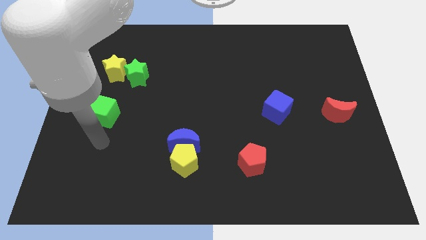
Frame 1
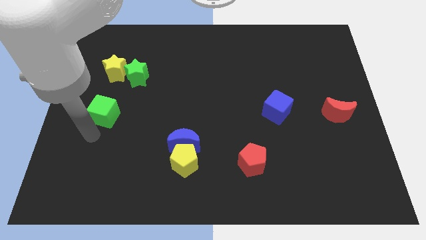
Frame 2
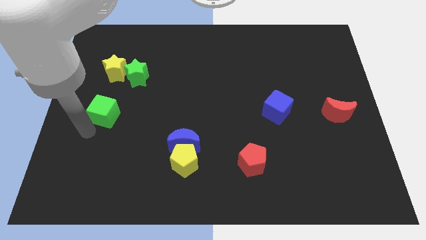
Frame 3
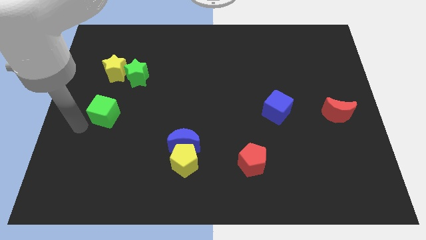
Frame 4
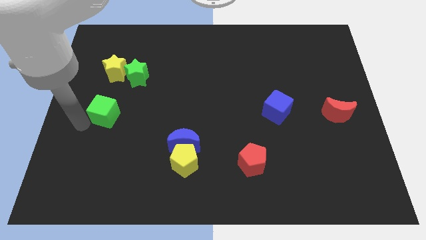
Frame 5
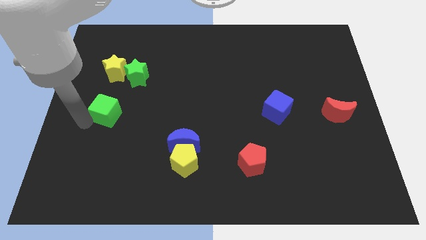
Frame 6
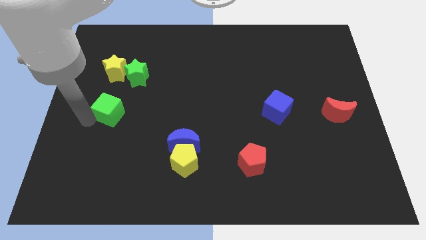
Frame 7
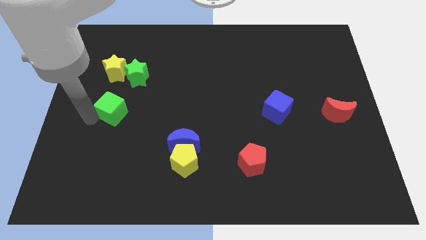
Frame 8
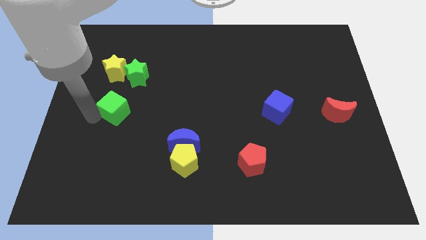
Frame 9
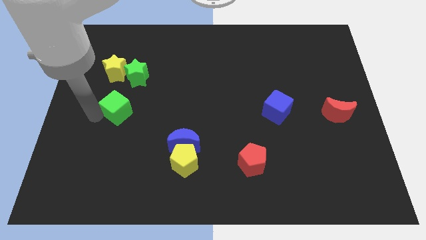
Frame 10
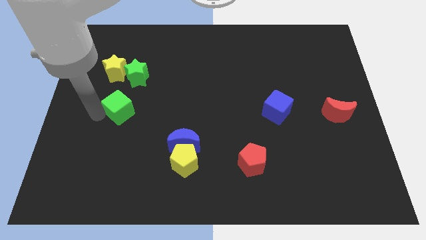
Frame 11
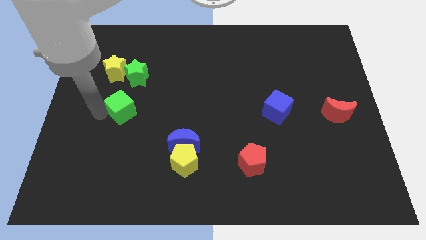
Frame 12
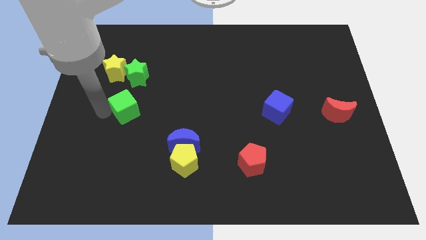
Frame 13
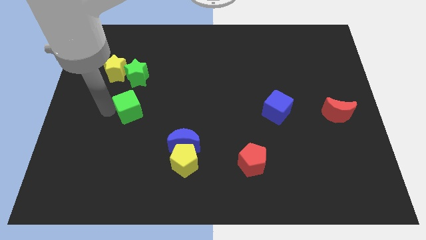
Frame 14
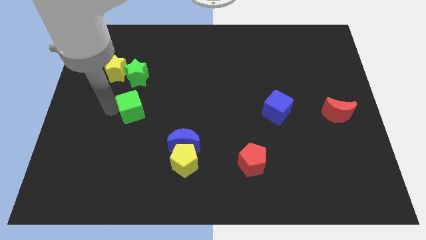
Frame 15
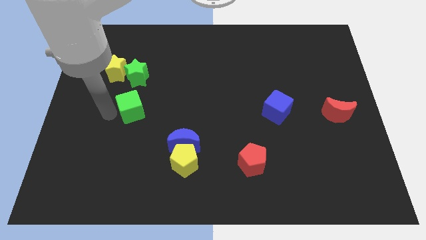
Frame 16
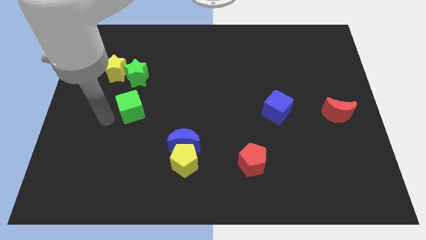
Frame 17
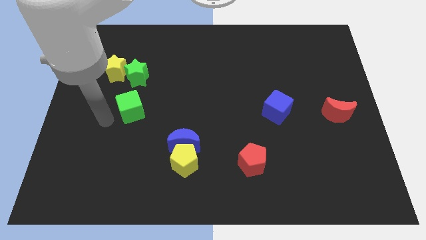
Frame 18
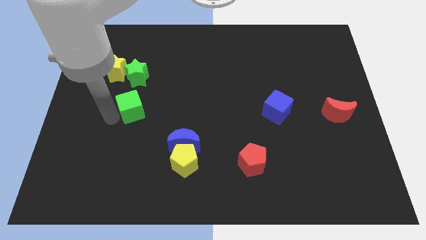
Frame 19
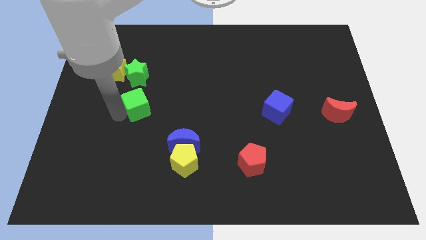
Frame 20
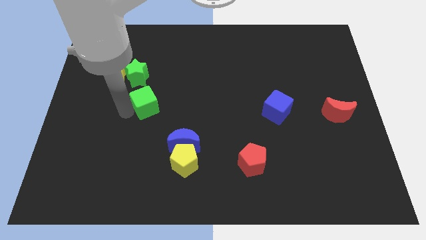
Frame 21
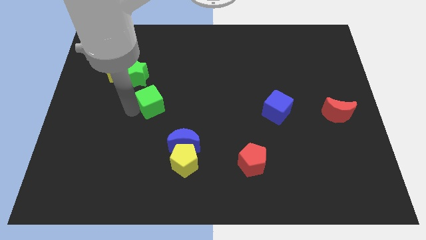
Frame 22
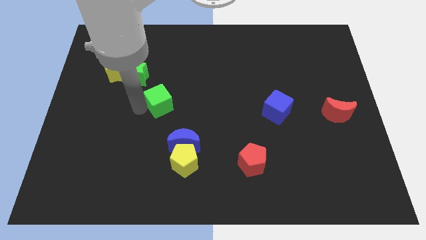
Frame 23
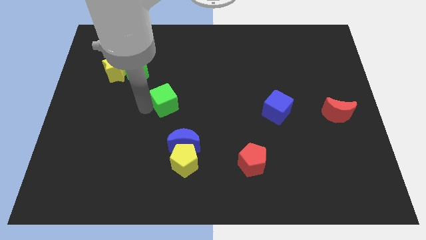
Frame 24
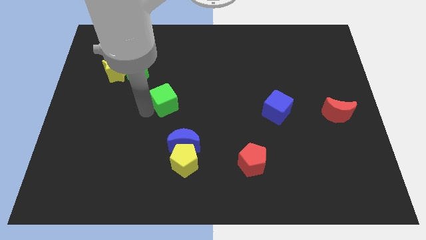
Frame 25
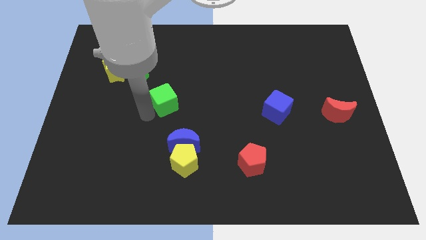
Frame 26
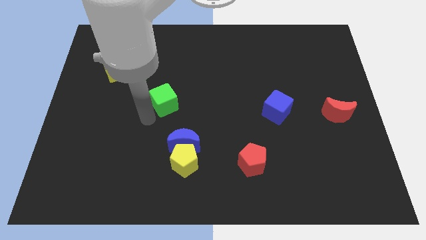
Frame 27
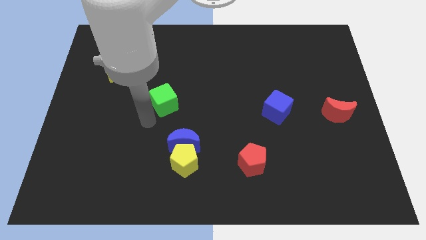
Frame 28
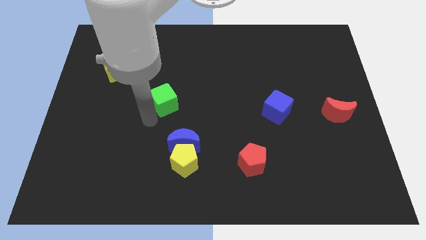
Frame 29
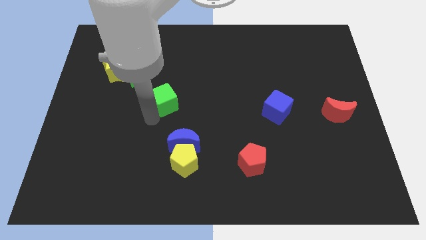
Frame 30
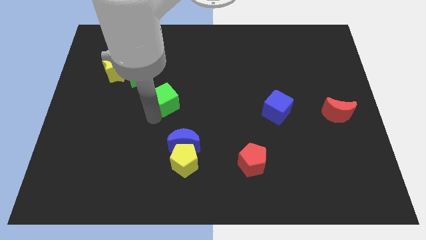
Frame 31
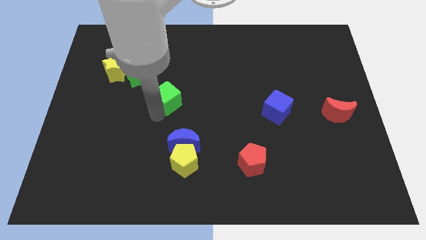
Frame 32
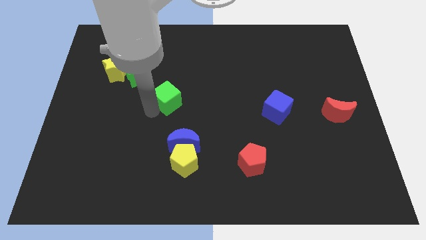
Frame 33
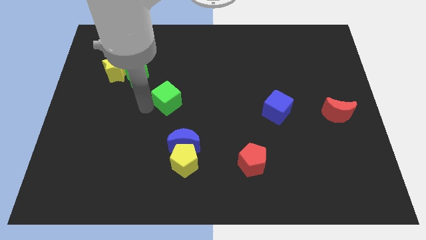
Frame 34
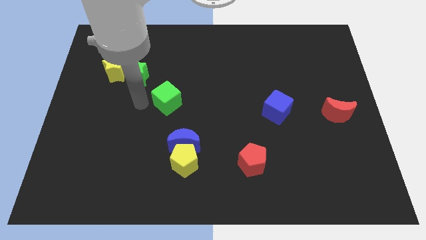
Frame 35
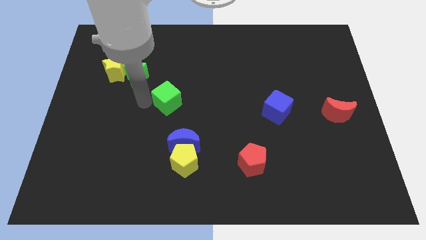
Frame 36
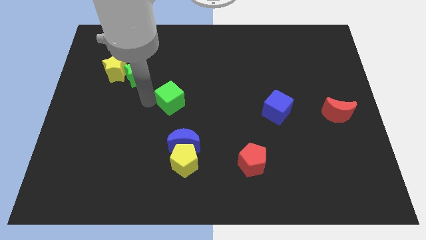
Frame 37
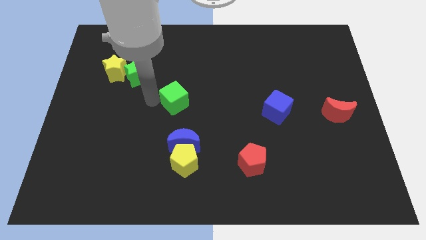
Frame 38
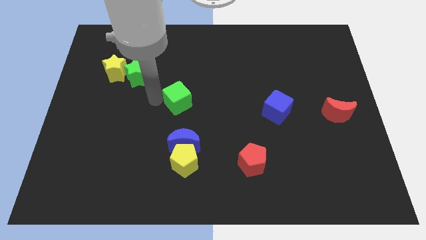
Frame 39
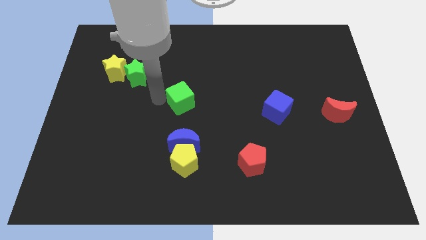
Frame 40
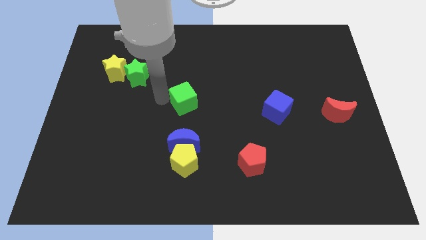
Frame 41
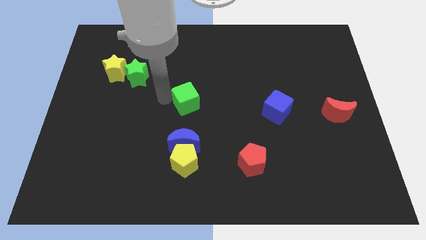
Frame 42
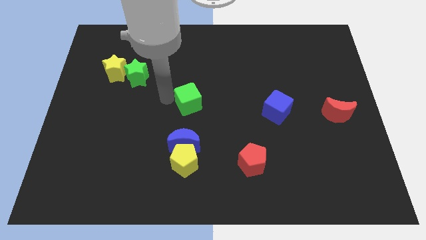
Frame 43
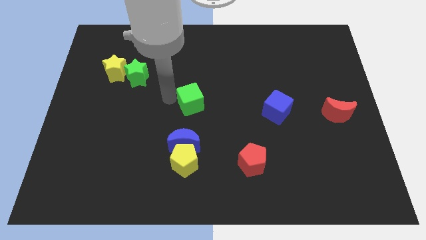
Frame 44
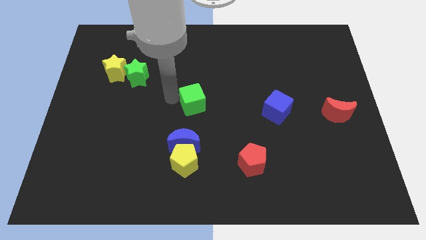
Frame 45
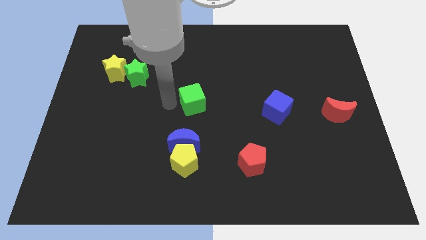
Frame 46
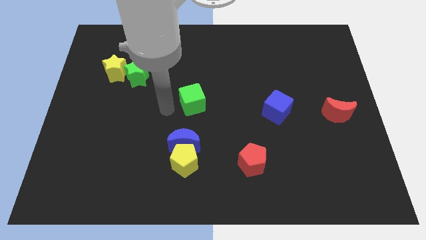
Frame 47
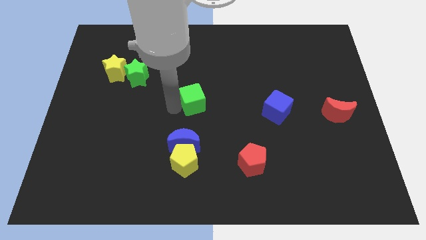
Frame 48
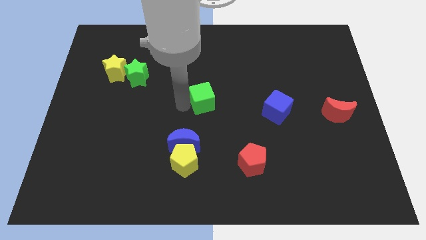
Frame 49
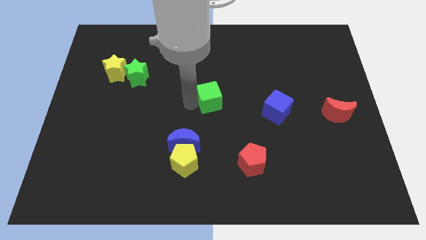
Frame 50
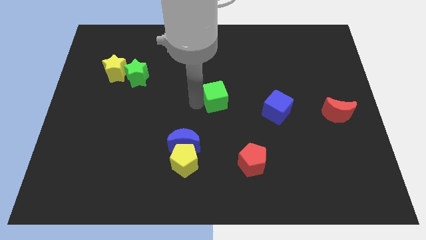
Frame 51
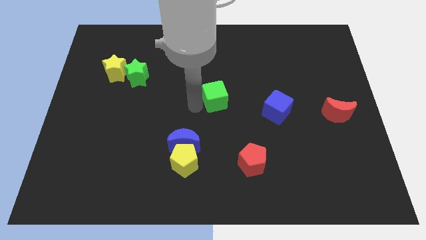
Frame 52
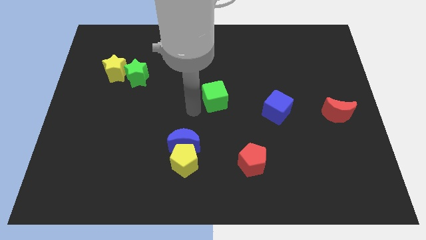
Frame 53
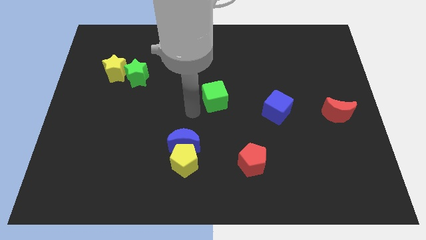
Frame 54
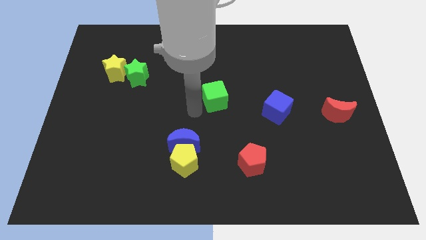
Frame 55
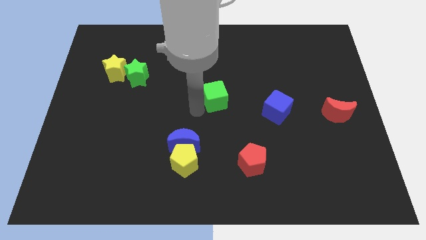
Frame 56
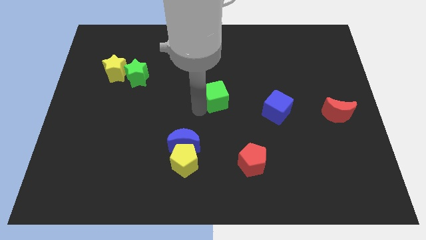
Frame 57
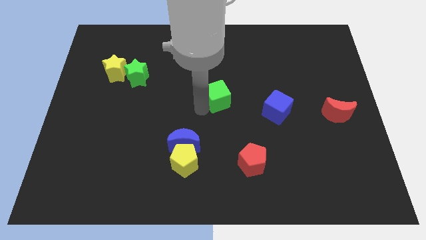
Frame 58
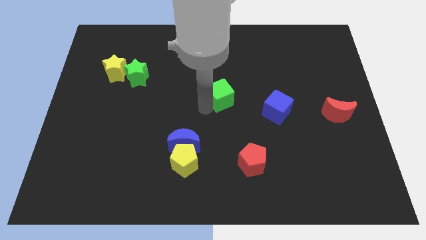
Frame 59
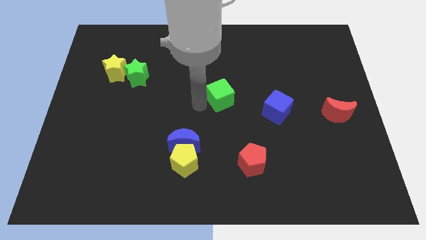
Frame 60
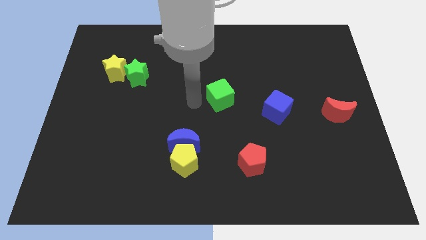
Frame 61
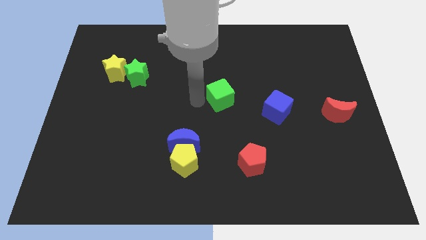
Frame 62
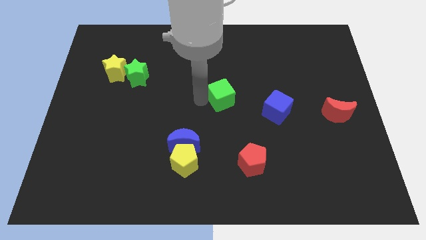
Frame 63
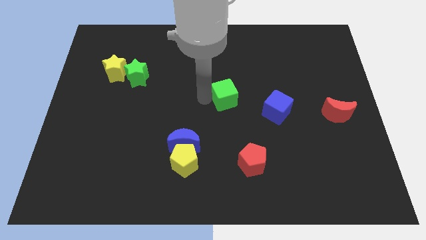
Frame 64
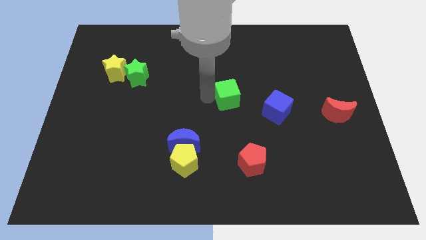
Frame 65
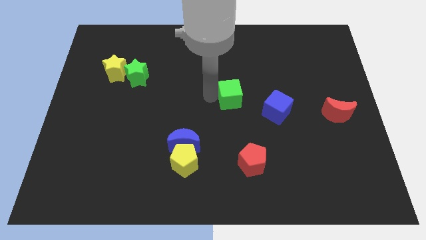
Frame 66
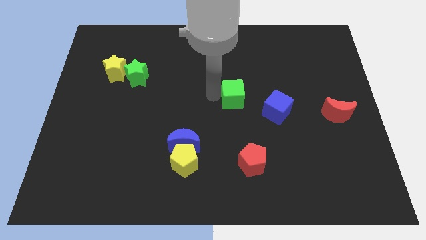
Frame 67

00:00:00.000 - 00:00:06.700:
put the green cube to the top left side of the blue cube

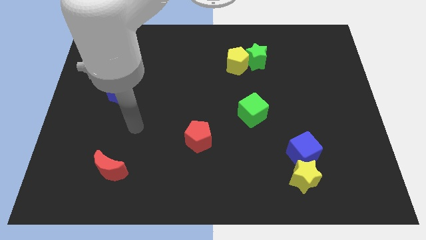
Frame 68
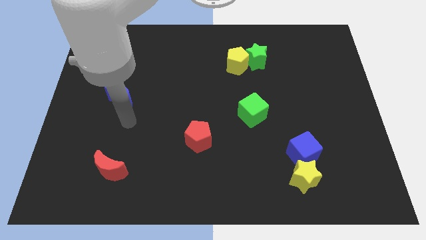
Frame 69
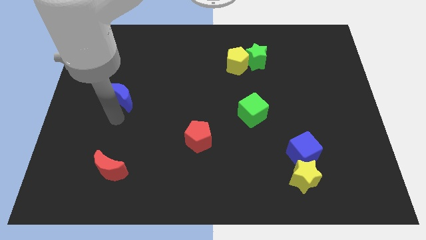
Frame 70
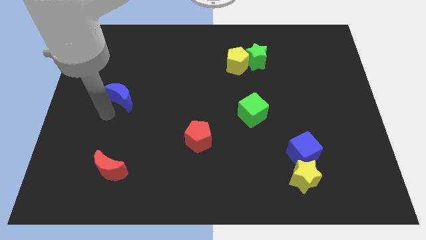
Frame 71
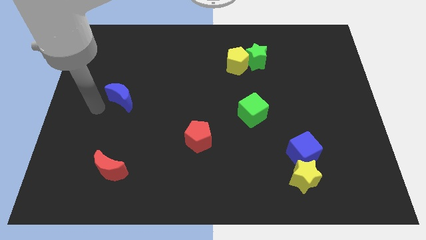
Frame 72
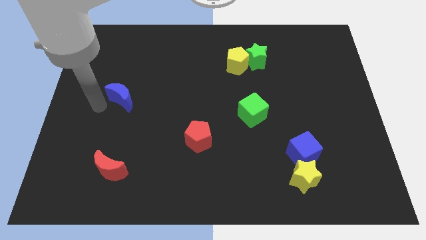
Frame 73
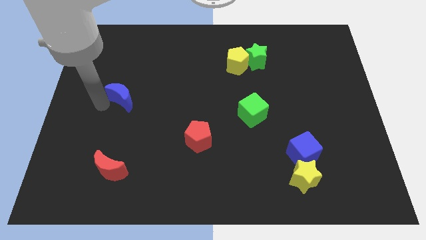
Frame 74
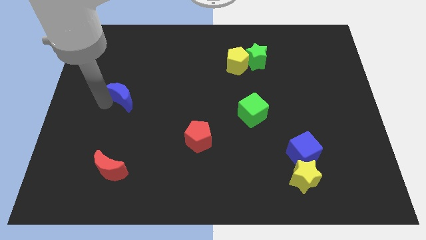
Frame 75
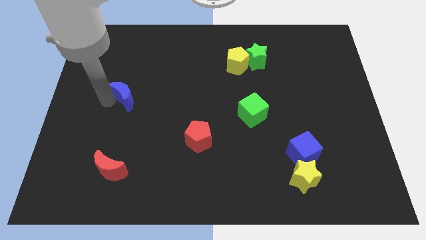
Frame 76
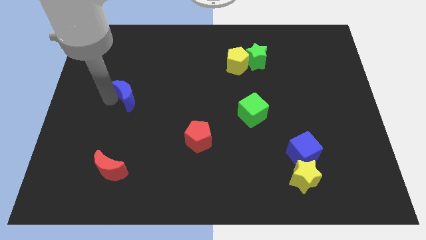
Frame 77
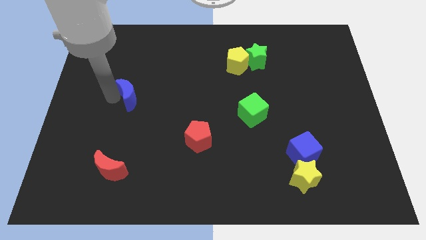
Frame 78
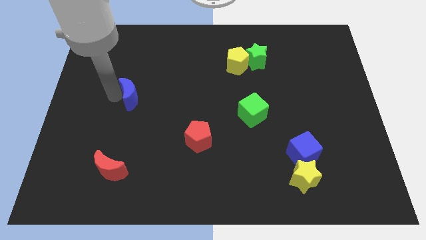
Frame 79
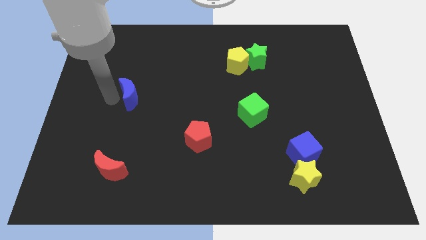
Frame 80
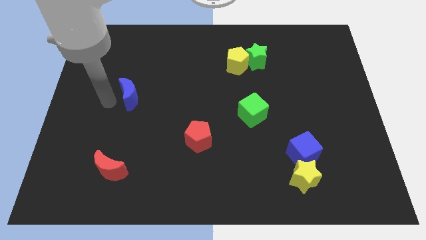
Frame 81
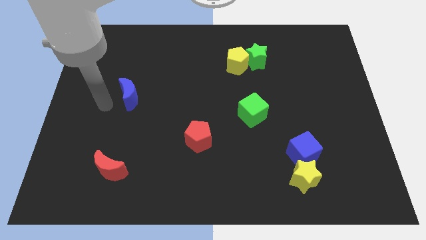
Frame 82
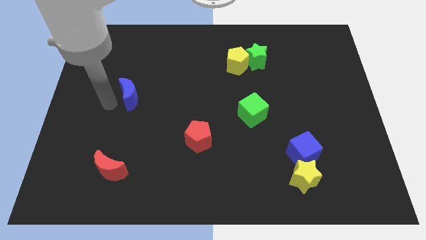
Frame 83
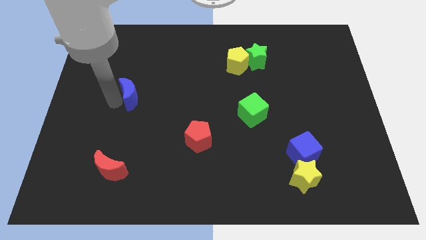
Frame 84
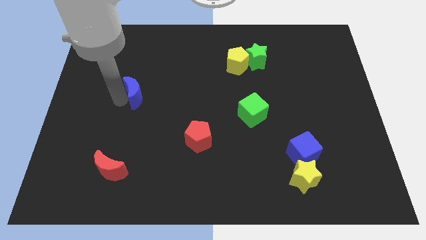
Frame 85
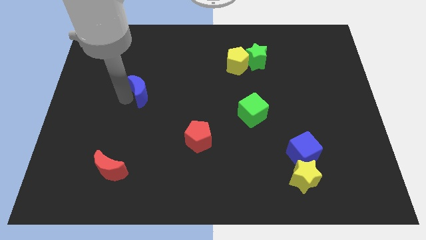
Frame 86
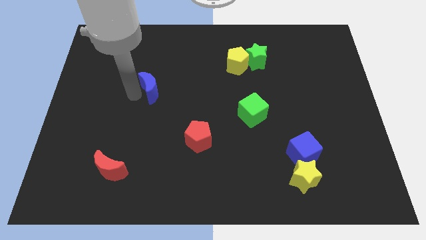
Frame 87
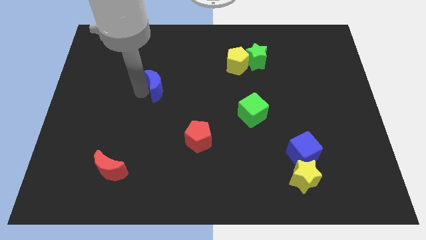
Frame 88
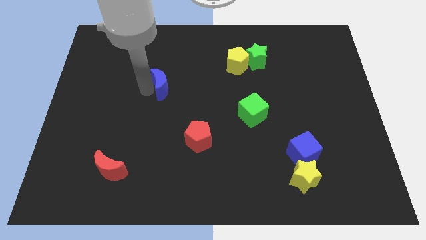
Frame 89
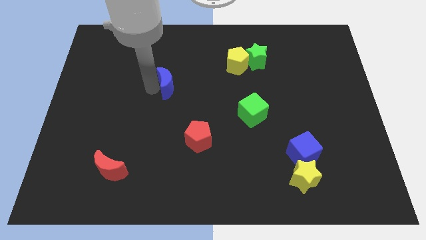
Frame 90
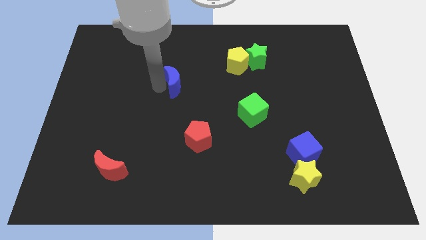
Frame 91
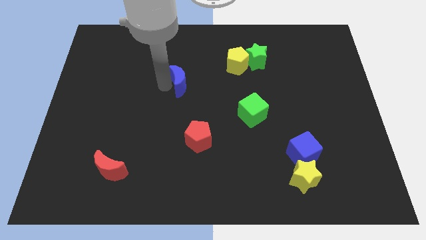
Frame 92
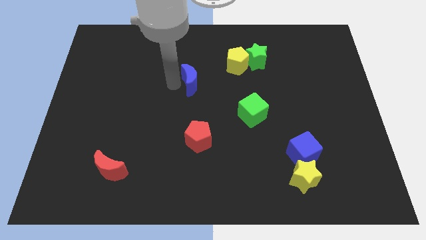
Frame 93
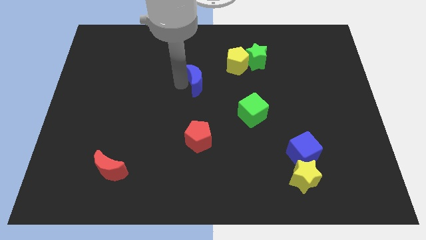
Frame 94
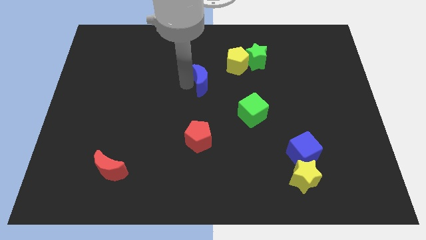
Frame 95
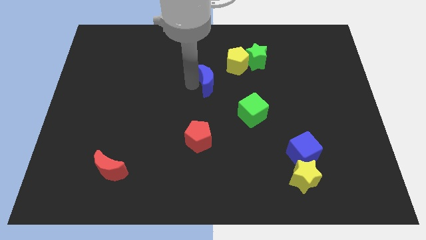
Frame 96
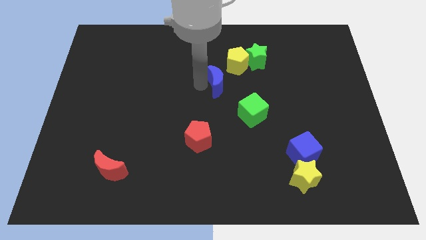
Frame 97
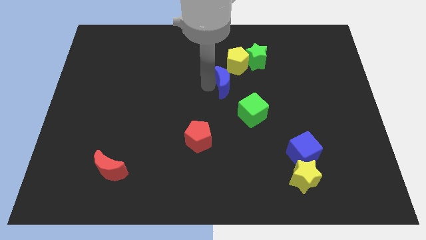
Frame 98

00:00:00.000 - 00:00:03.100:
put the blue moon to the bottom left side of the green star
